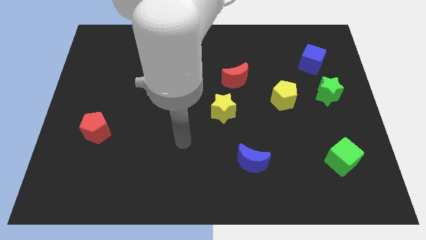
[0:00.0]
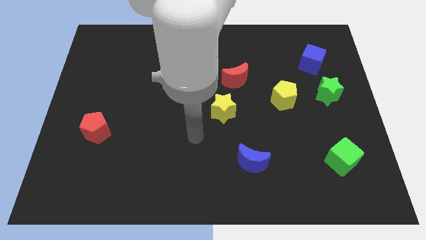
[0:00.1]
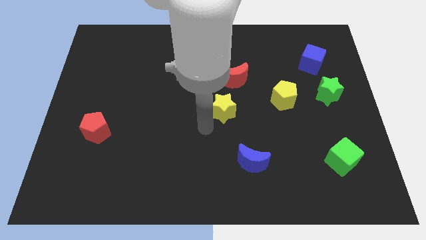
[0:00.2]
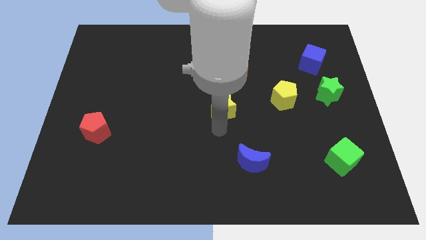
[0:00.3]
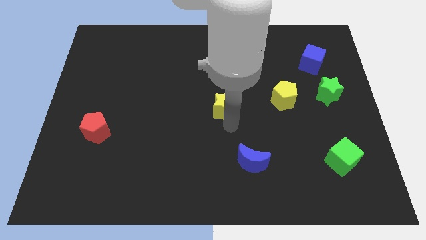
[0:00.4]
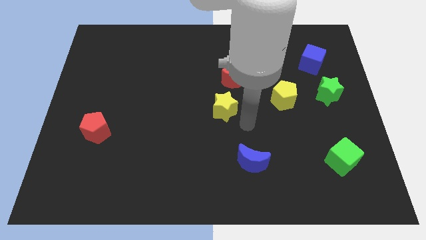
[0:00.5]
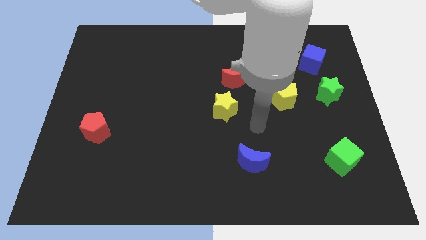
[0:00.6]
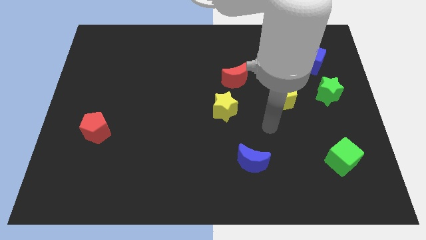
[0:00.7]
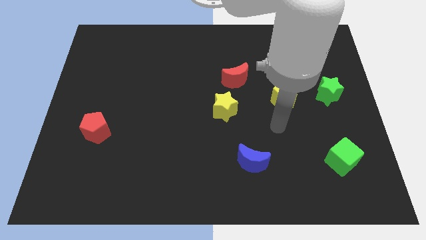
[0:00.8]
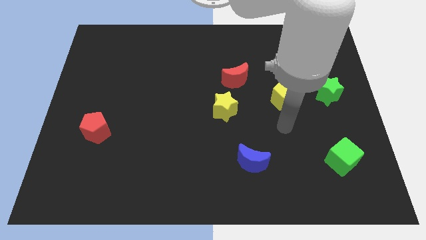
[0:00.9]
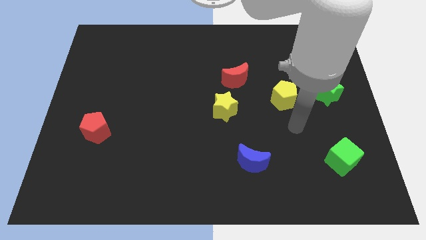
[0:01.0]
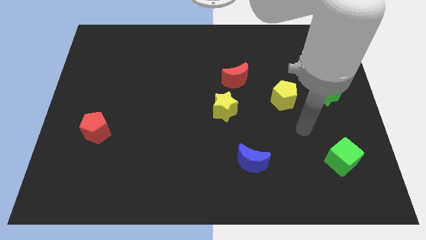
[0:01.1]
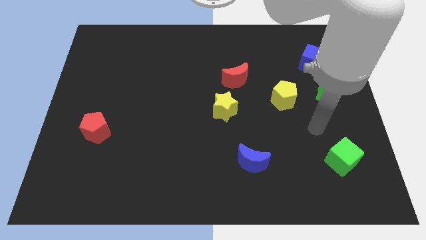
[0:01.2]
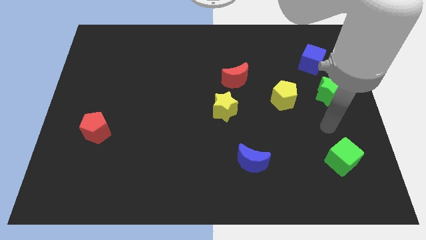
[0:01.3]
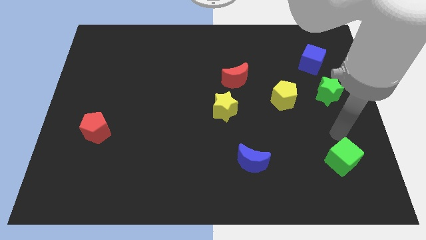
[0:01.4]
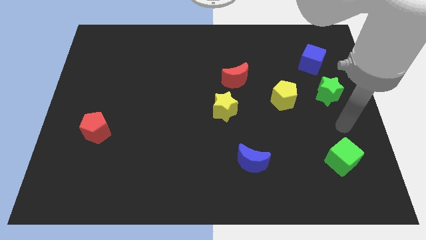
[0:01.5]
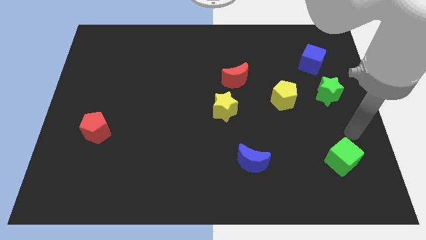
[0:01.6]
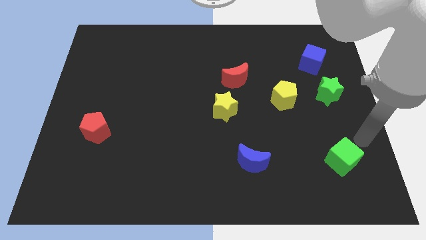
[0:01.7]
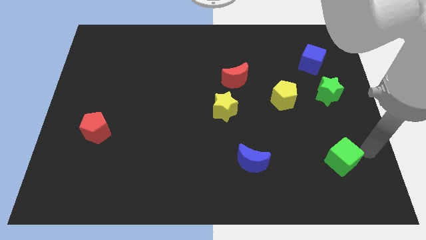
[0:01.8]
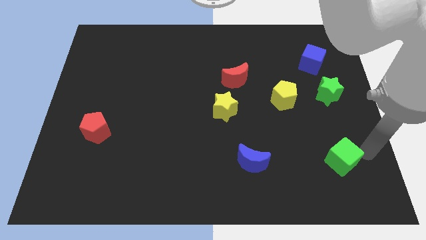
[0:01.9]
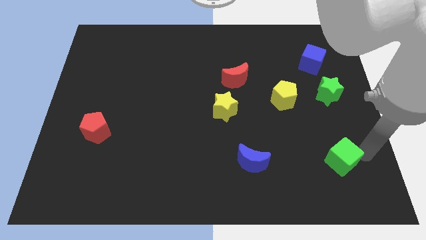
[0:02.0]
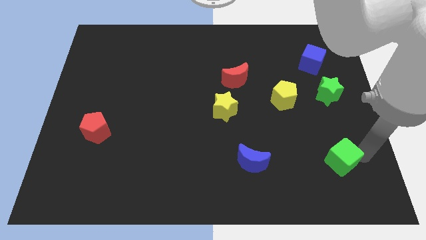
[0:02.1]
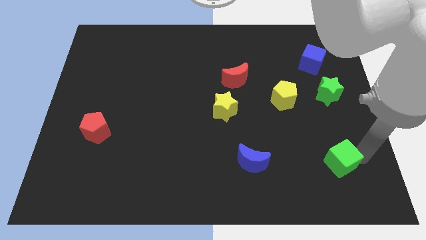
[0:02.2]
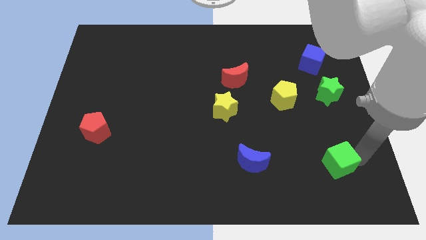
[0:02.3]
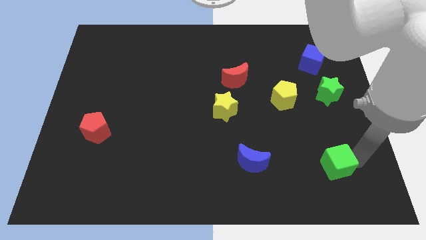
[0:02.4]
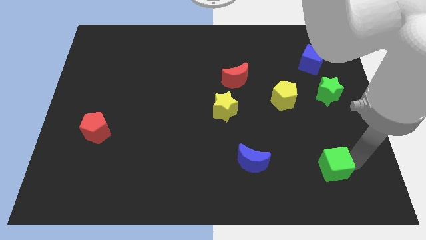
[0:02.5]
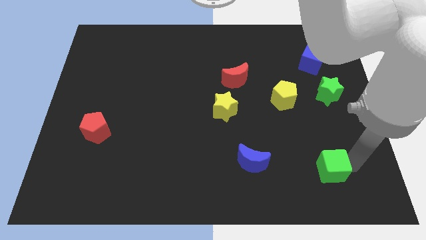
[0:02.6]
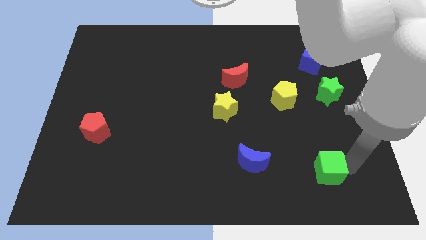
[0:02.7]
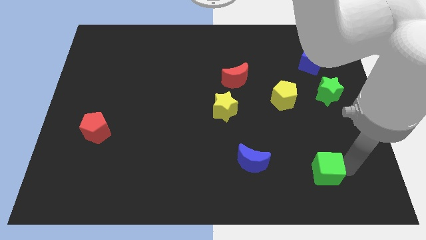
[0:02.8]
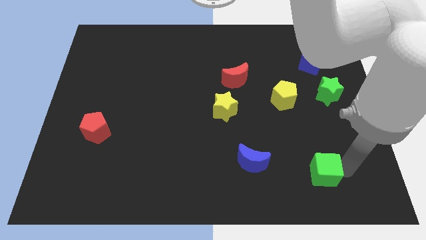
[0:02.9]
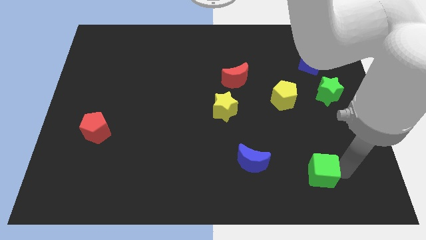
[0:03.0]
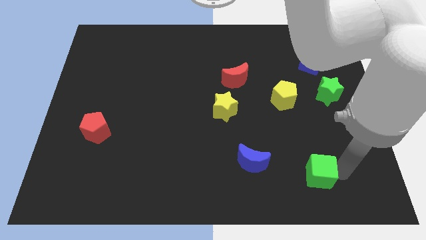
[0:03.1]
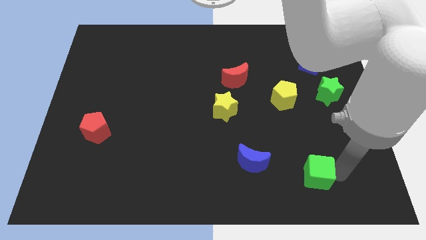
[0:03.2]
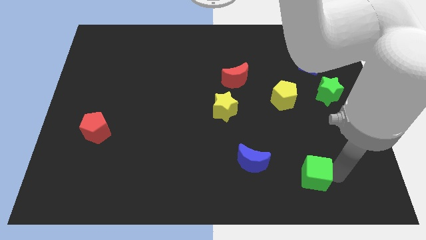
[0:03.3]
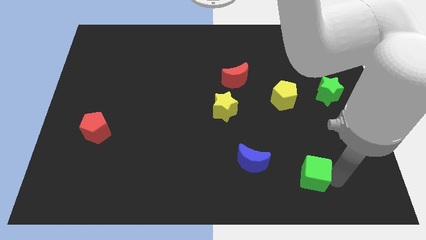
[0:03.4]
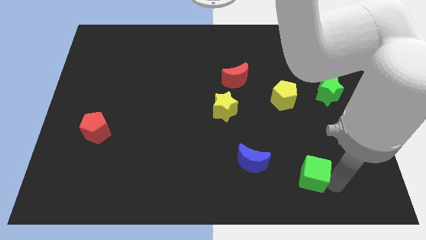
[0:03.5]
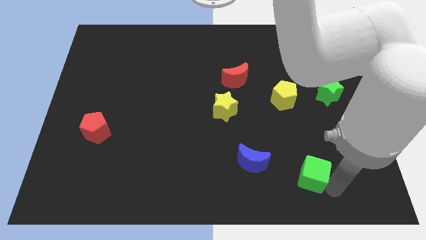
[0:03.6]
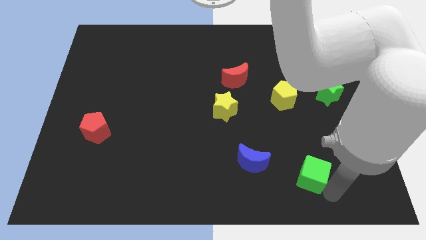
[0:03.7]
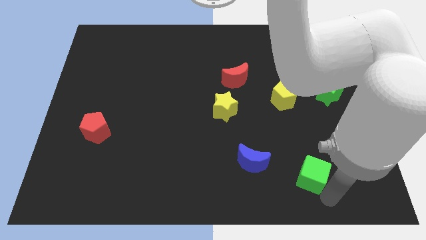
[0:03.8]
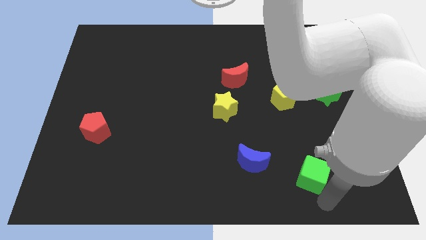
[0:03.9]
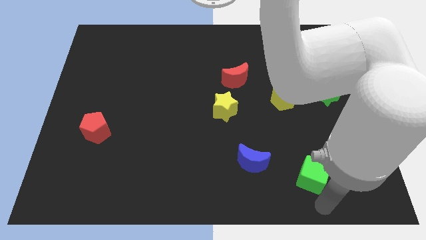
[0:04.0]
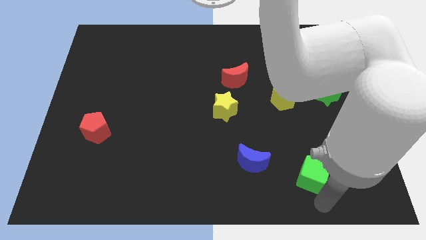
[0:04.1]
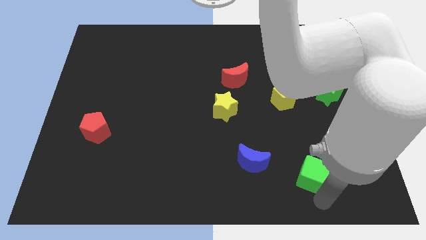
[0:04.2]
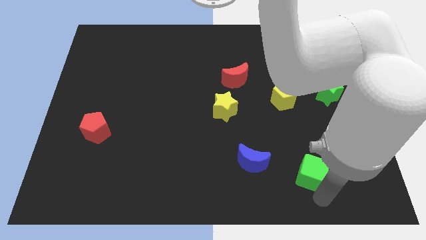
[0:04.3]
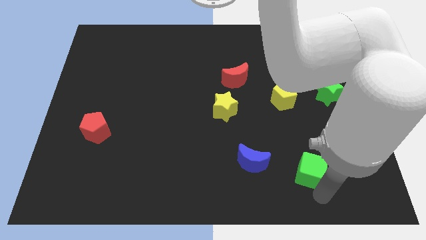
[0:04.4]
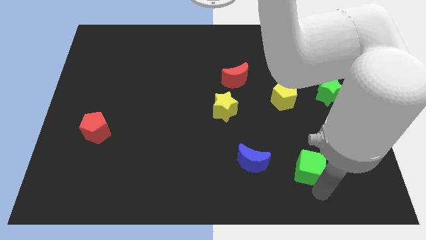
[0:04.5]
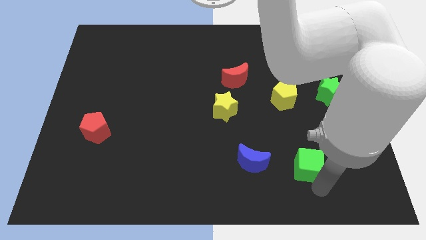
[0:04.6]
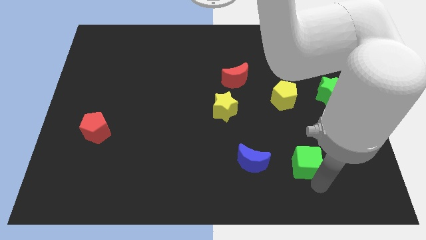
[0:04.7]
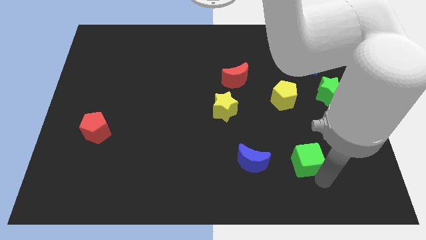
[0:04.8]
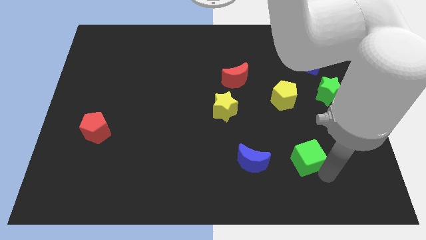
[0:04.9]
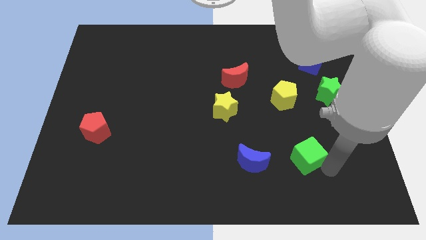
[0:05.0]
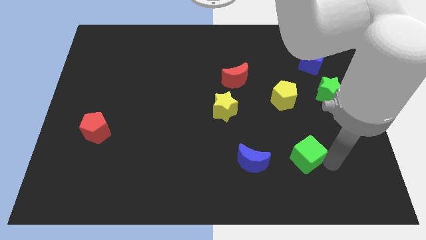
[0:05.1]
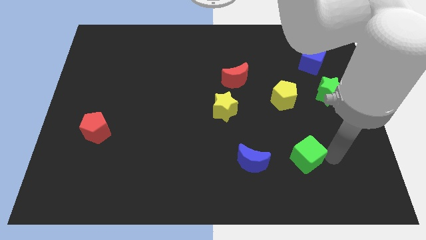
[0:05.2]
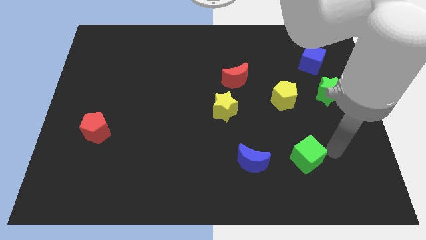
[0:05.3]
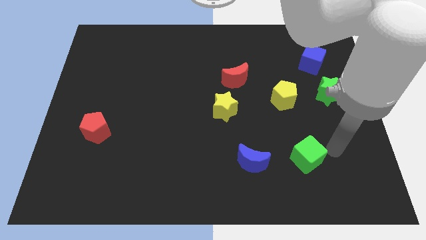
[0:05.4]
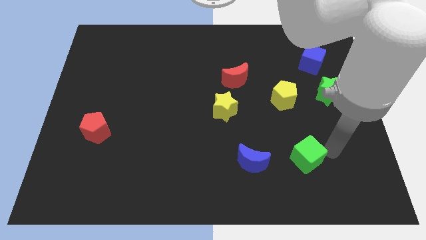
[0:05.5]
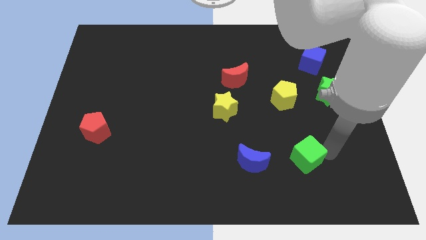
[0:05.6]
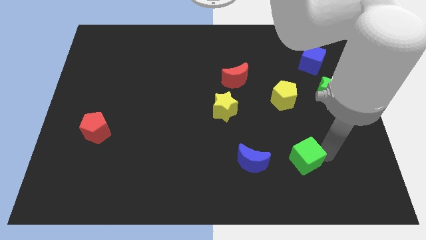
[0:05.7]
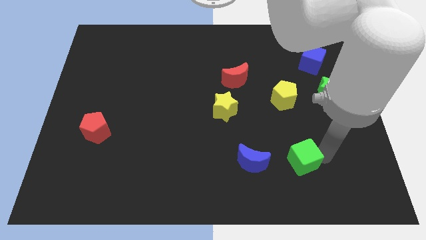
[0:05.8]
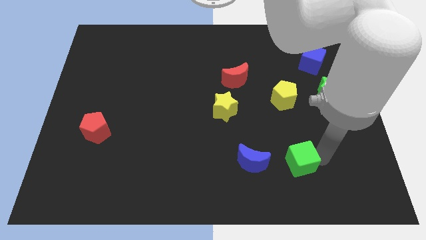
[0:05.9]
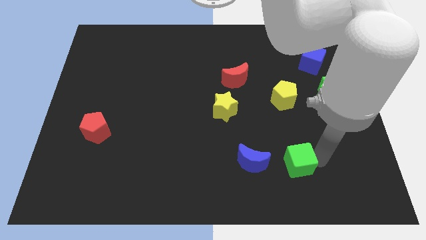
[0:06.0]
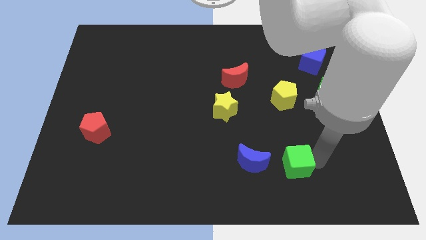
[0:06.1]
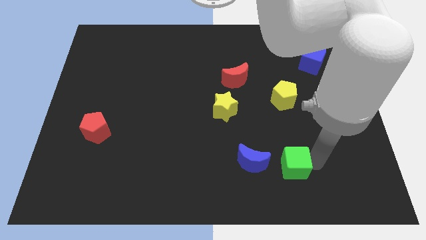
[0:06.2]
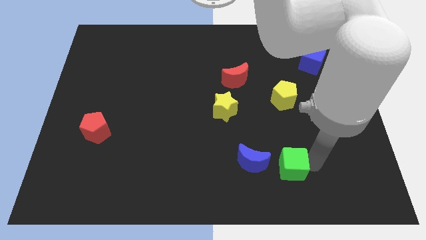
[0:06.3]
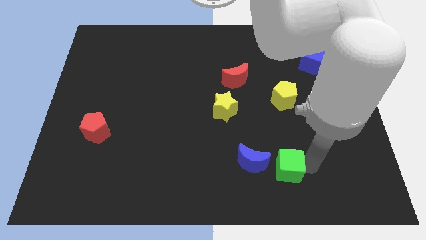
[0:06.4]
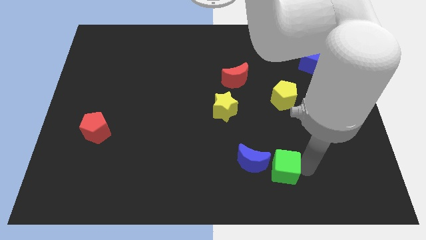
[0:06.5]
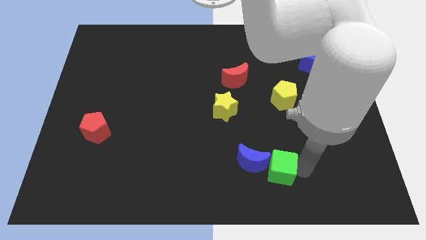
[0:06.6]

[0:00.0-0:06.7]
move the green cube towards the blue moon

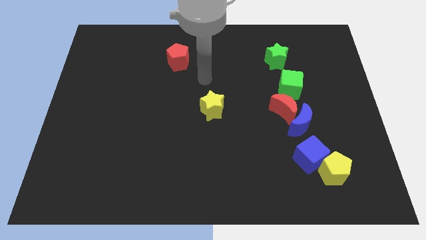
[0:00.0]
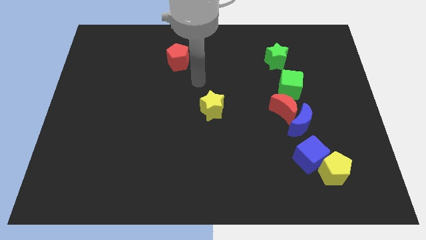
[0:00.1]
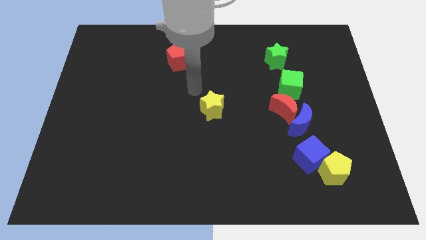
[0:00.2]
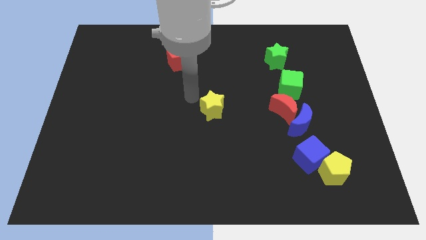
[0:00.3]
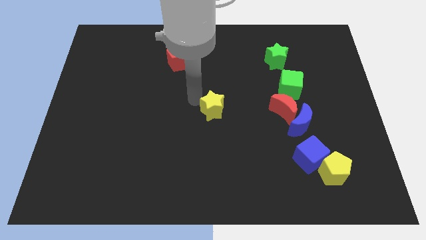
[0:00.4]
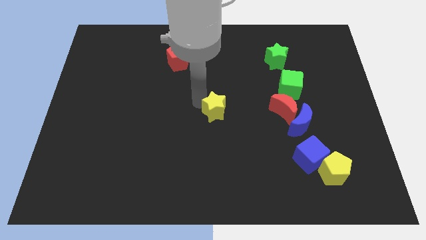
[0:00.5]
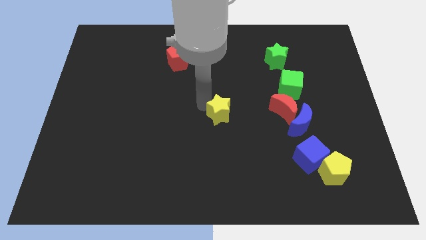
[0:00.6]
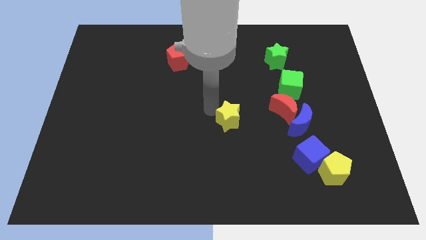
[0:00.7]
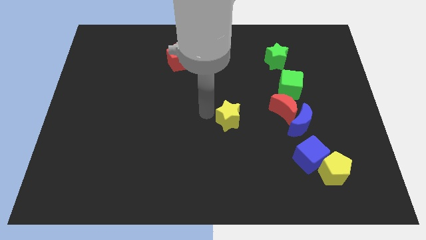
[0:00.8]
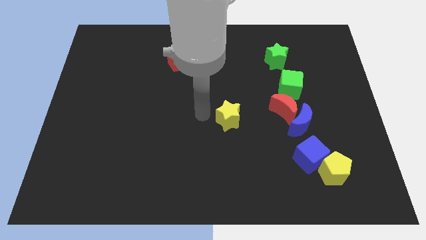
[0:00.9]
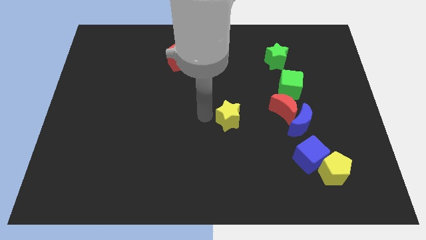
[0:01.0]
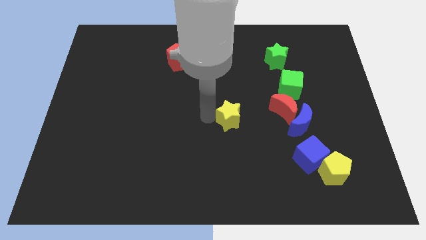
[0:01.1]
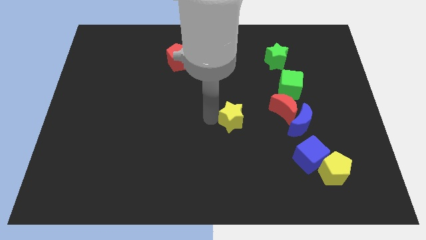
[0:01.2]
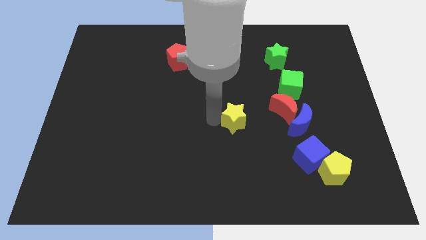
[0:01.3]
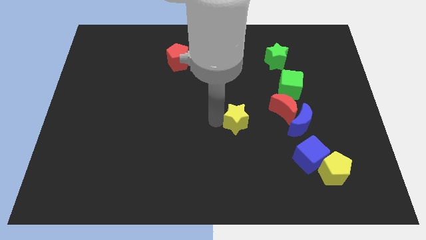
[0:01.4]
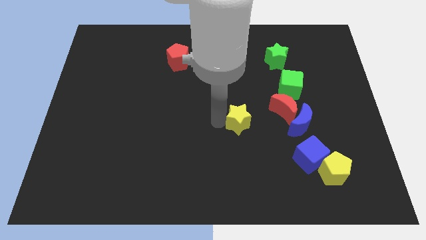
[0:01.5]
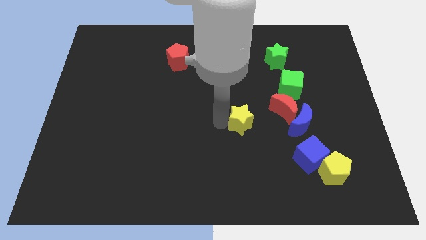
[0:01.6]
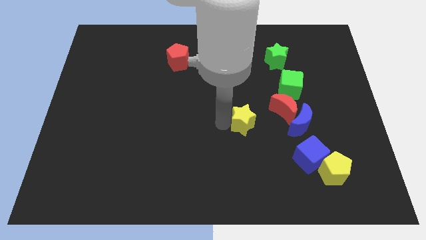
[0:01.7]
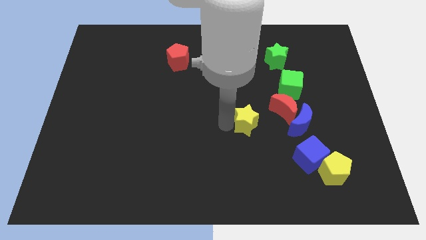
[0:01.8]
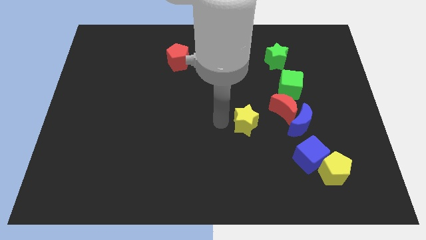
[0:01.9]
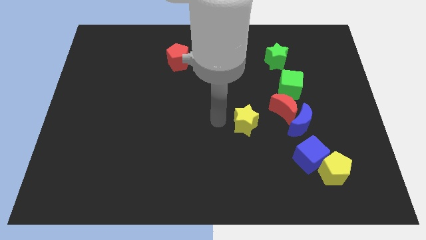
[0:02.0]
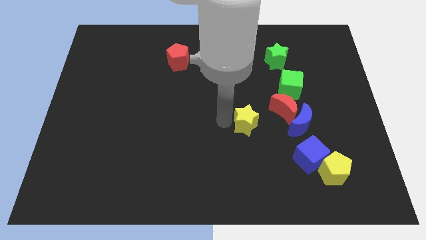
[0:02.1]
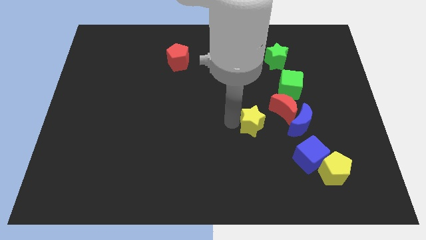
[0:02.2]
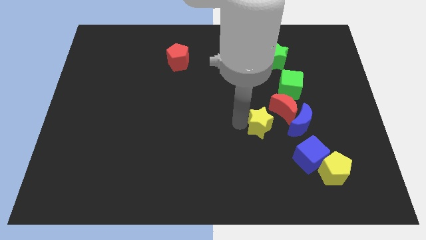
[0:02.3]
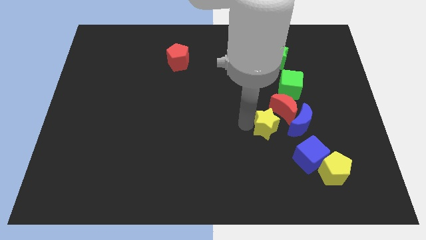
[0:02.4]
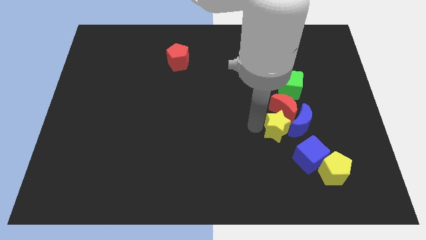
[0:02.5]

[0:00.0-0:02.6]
slide the yellow star to the blue moon
